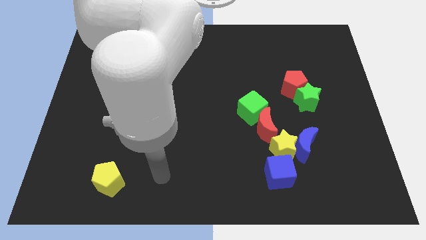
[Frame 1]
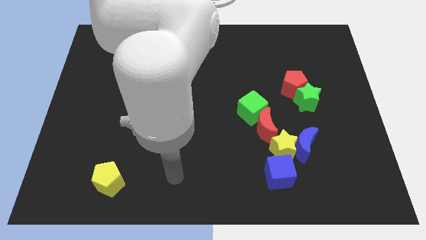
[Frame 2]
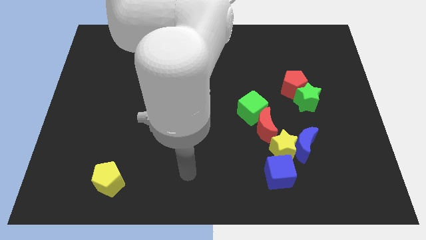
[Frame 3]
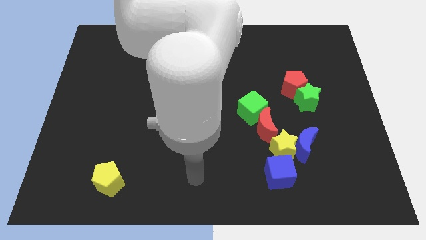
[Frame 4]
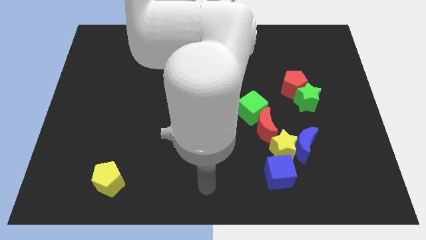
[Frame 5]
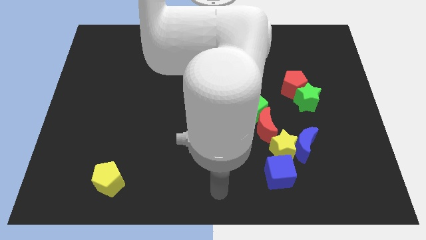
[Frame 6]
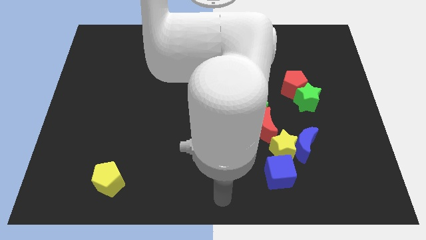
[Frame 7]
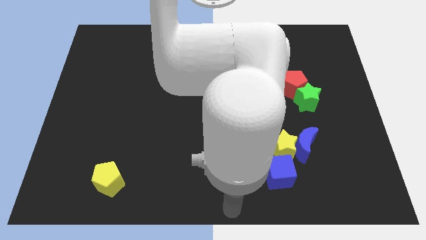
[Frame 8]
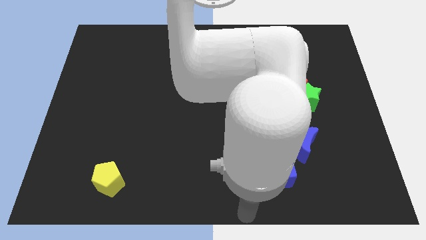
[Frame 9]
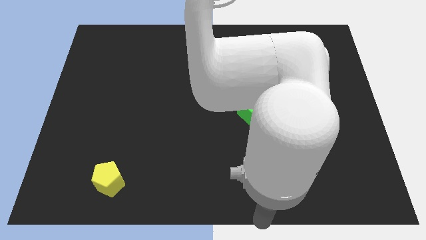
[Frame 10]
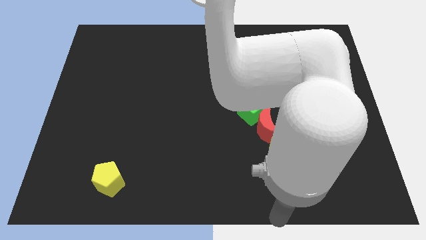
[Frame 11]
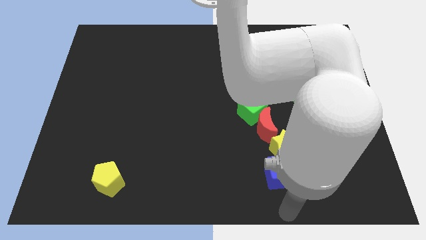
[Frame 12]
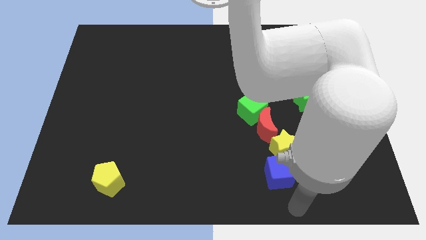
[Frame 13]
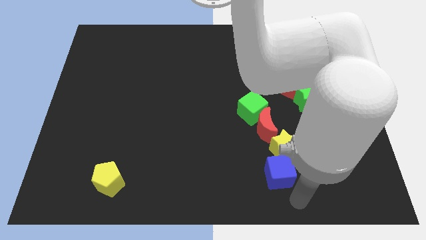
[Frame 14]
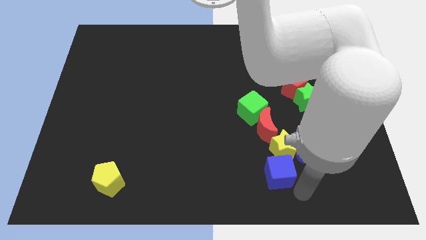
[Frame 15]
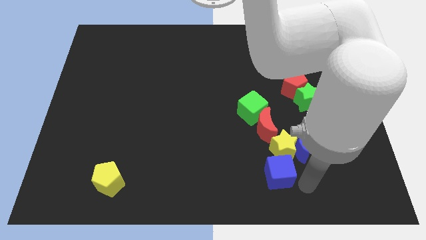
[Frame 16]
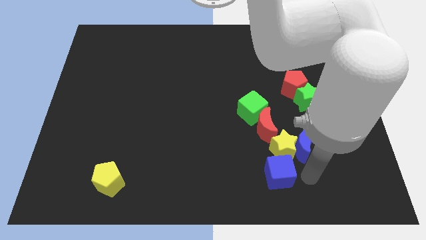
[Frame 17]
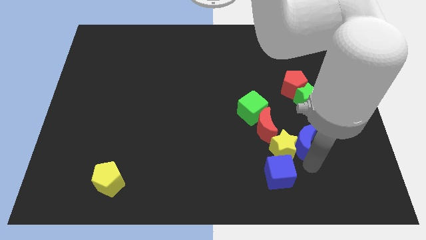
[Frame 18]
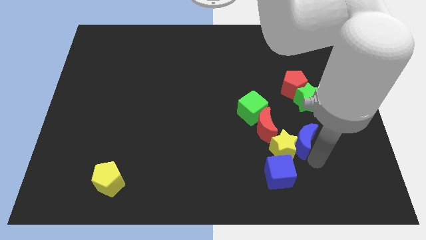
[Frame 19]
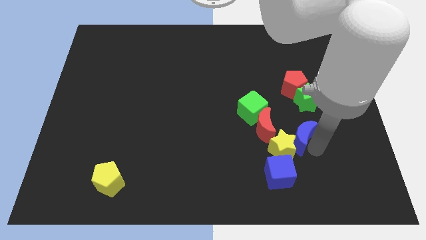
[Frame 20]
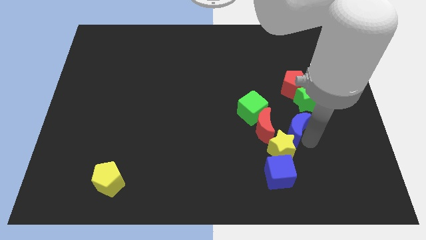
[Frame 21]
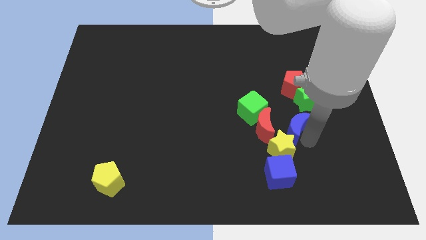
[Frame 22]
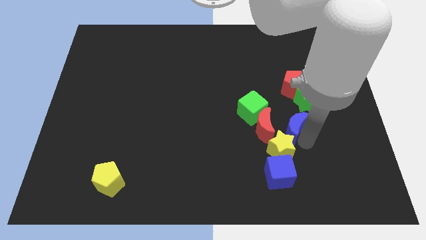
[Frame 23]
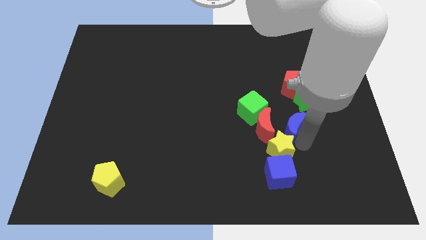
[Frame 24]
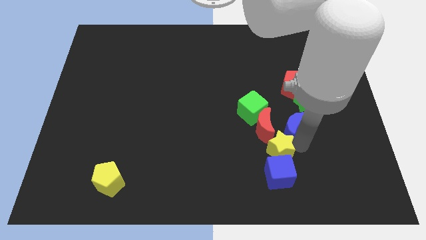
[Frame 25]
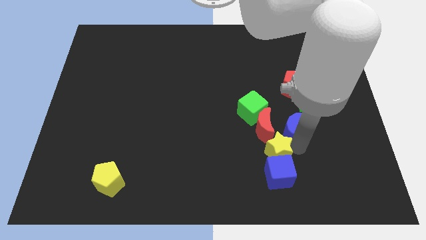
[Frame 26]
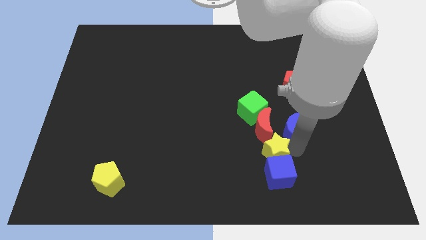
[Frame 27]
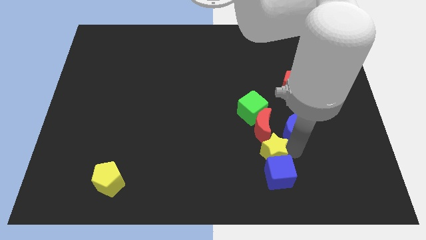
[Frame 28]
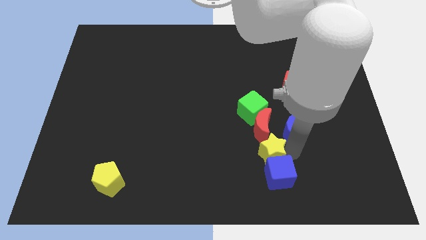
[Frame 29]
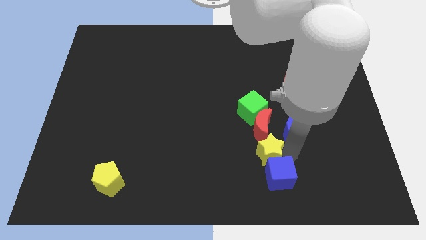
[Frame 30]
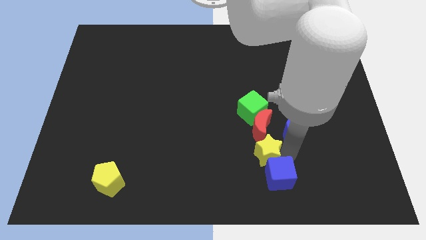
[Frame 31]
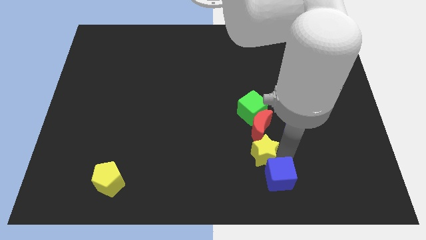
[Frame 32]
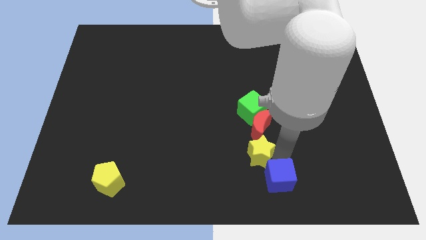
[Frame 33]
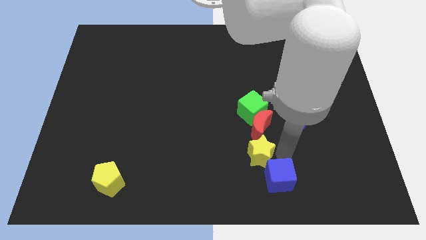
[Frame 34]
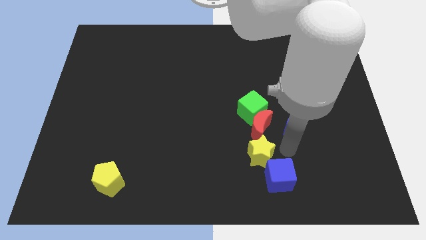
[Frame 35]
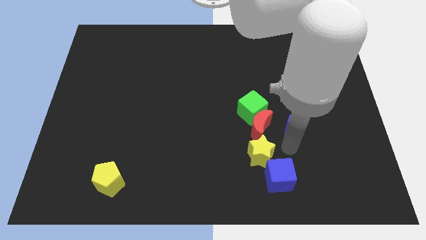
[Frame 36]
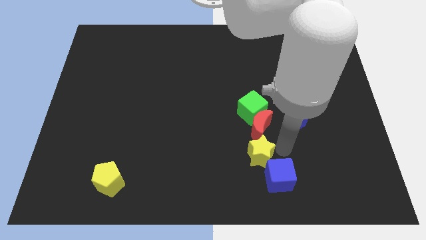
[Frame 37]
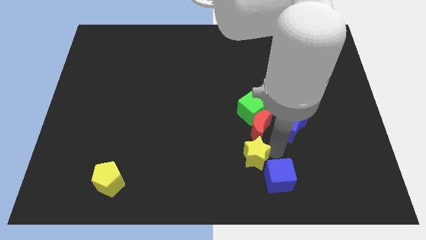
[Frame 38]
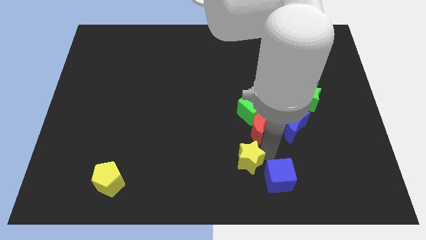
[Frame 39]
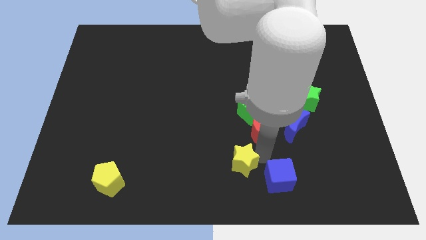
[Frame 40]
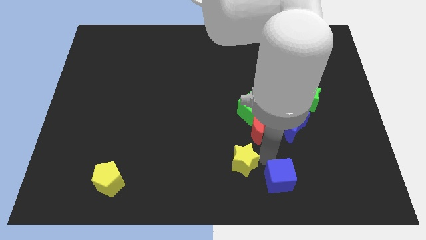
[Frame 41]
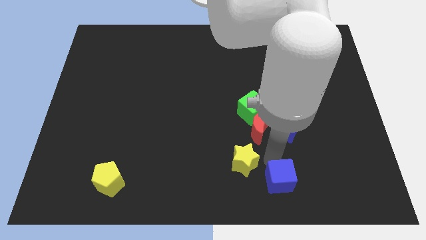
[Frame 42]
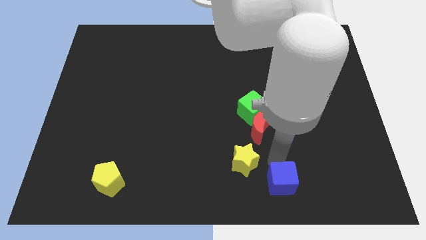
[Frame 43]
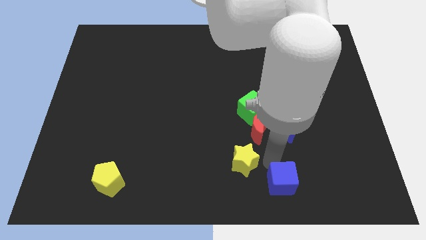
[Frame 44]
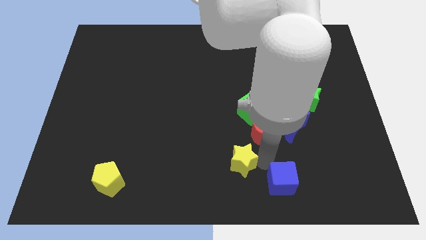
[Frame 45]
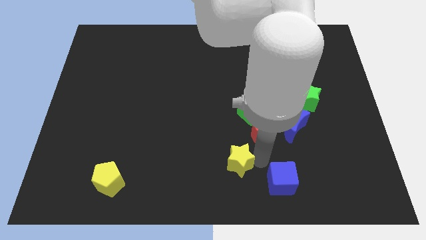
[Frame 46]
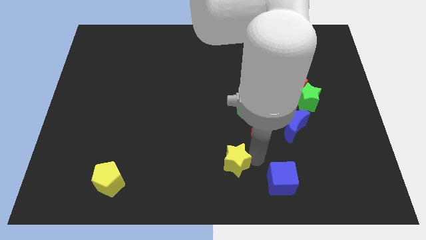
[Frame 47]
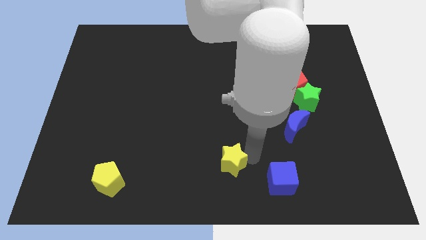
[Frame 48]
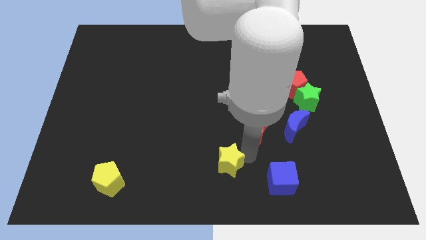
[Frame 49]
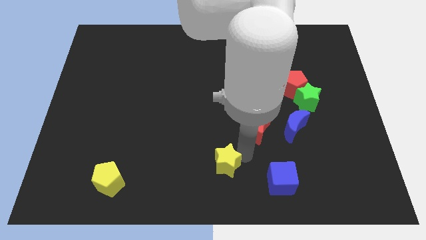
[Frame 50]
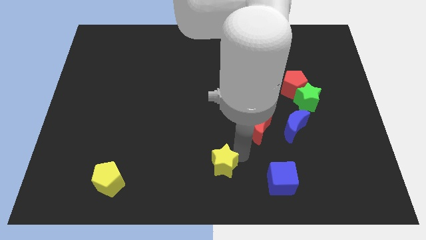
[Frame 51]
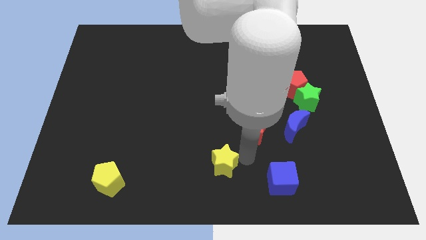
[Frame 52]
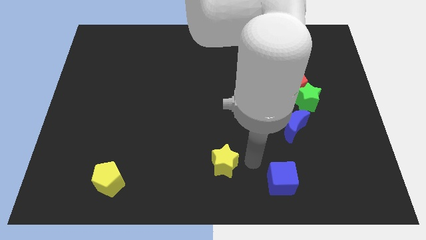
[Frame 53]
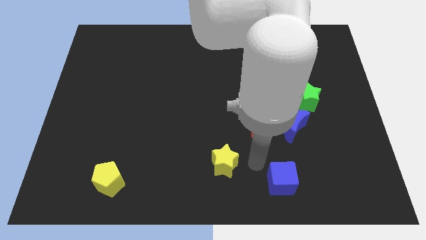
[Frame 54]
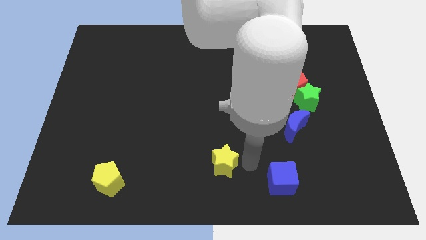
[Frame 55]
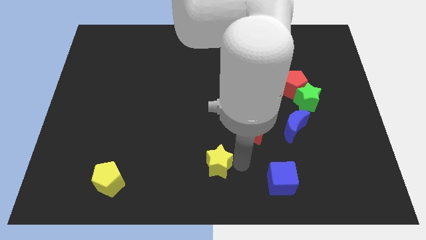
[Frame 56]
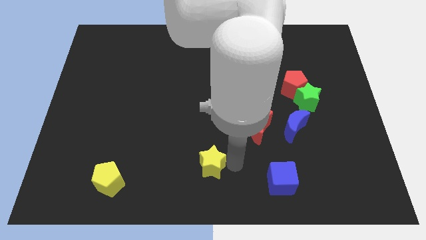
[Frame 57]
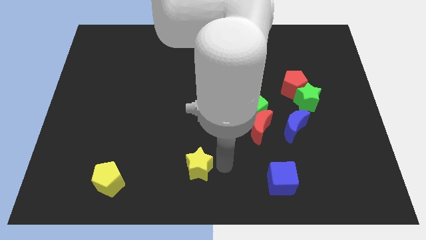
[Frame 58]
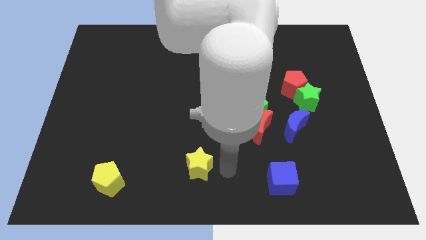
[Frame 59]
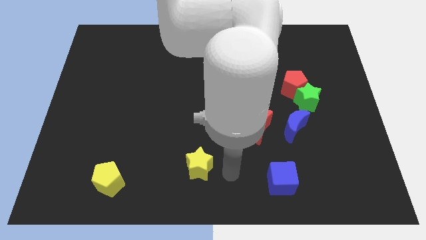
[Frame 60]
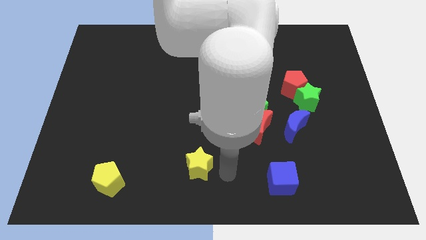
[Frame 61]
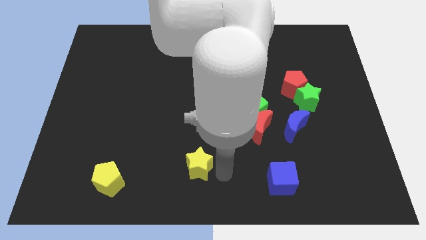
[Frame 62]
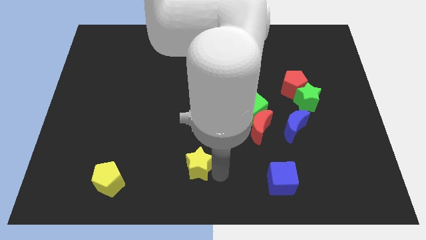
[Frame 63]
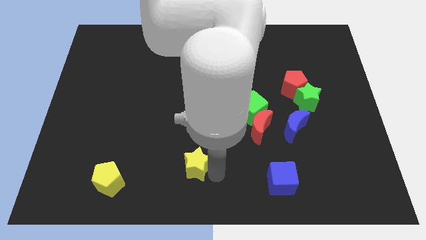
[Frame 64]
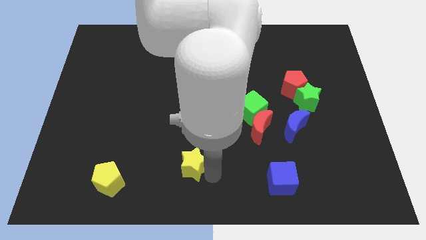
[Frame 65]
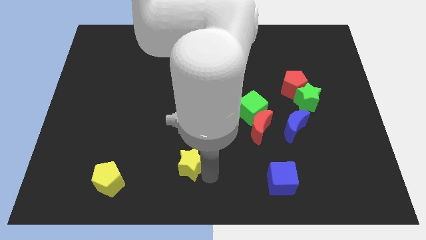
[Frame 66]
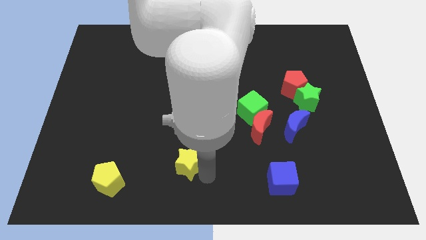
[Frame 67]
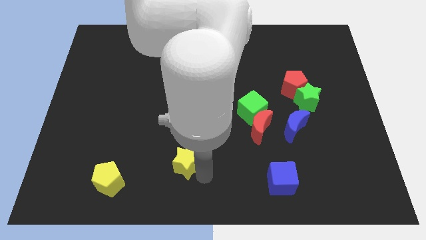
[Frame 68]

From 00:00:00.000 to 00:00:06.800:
move the yellow star to the left

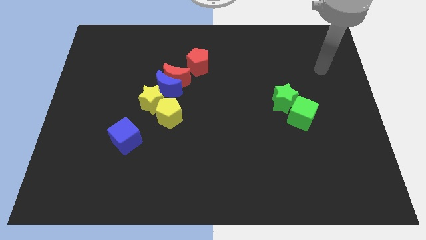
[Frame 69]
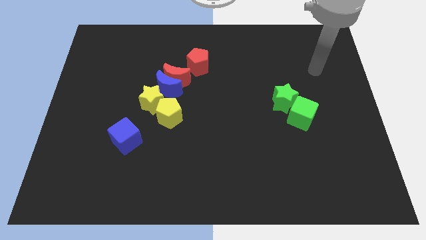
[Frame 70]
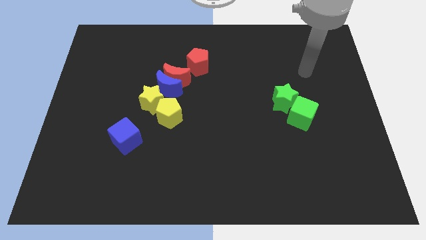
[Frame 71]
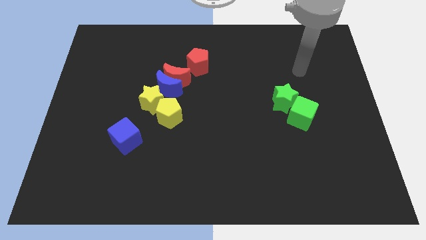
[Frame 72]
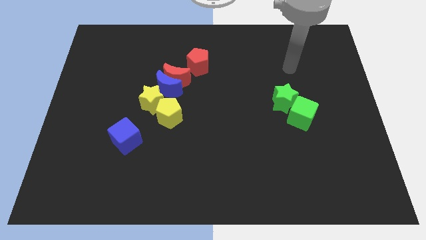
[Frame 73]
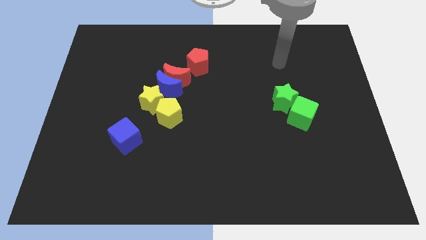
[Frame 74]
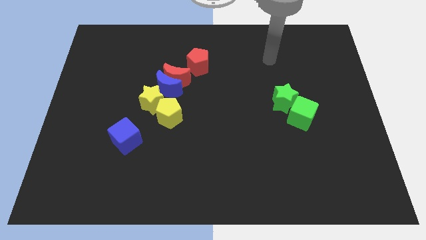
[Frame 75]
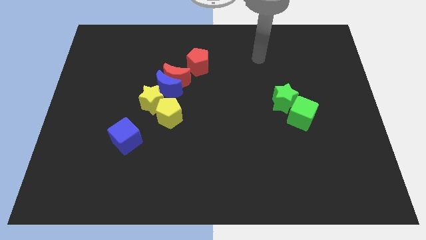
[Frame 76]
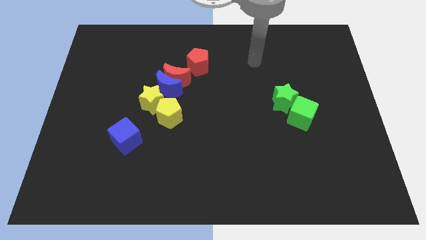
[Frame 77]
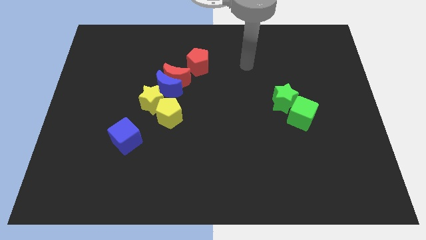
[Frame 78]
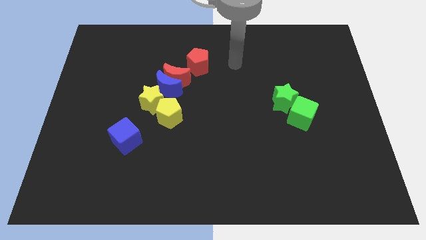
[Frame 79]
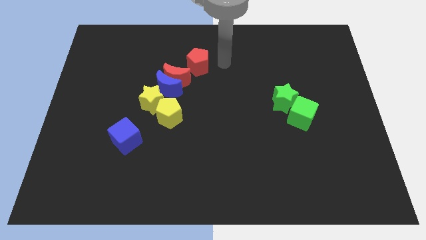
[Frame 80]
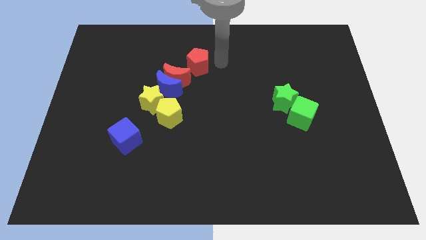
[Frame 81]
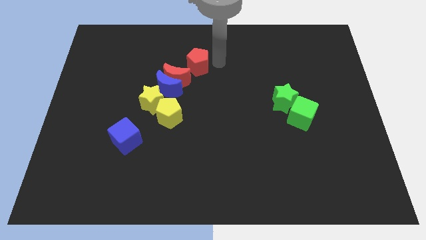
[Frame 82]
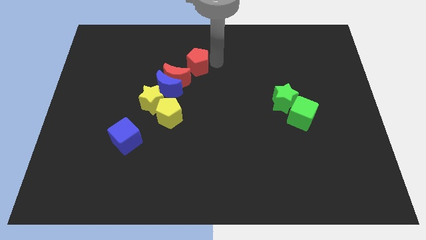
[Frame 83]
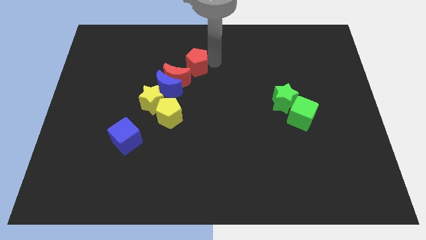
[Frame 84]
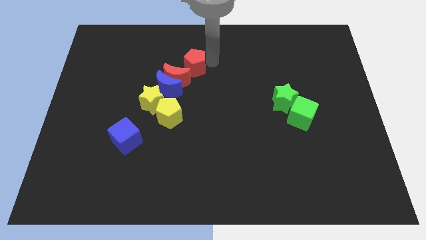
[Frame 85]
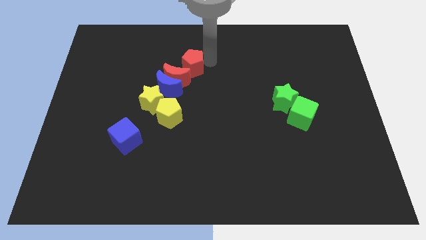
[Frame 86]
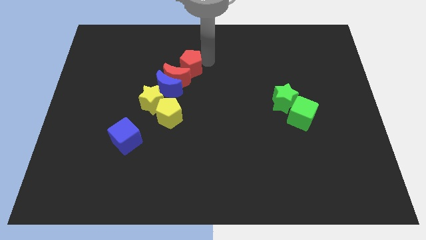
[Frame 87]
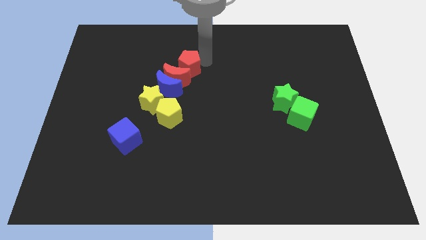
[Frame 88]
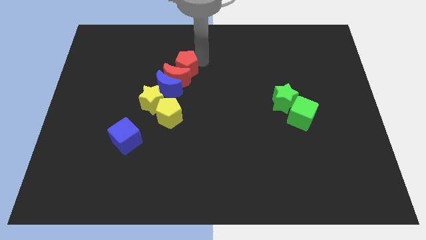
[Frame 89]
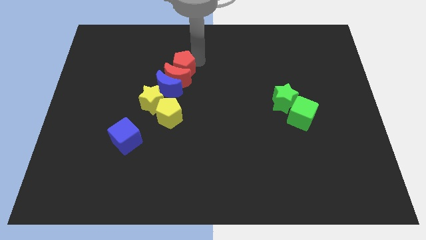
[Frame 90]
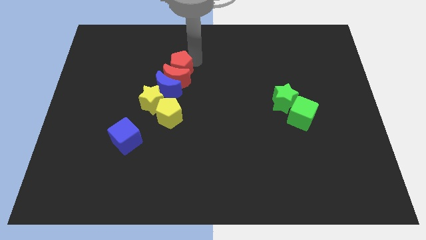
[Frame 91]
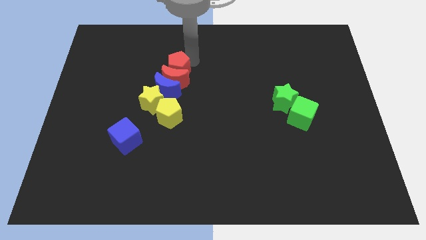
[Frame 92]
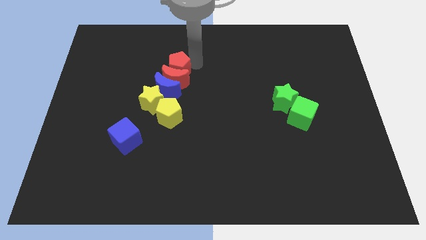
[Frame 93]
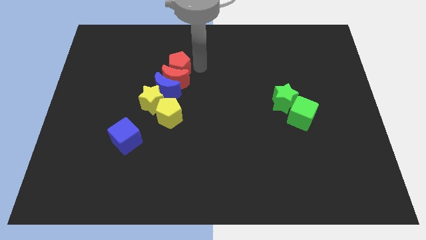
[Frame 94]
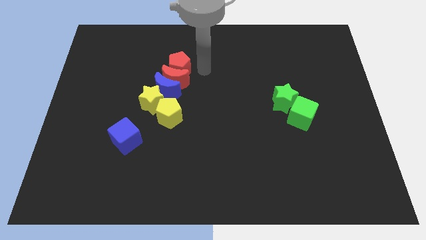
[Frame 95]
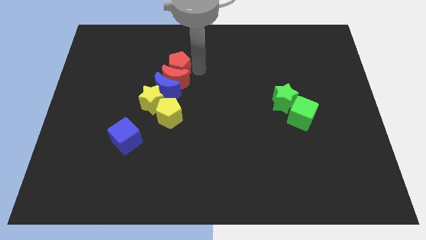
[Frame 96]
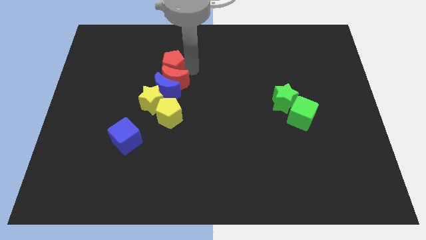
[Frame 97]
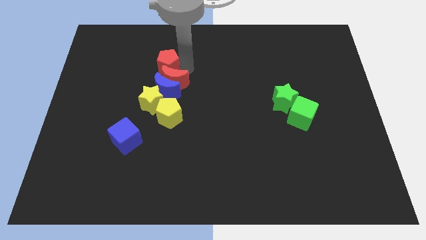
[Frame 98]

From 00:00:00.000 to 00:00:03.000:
slightly push the red pentagon to the left
